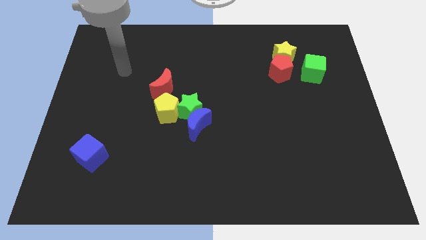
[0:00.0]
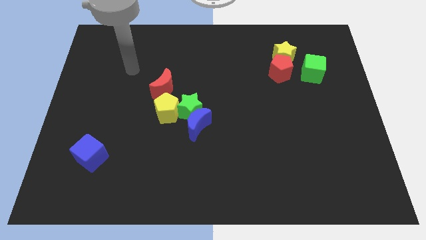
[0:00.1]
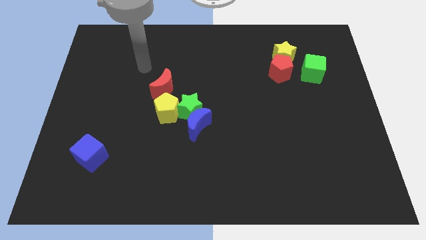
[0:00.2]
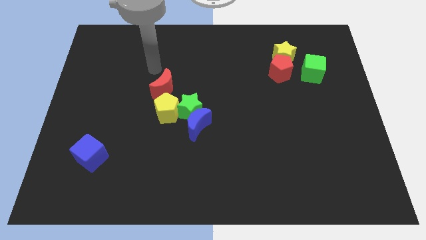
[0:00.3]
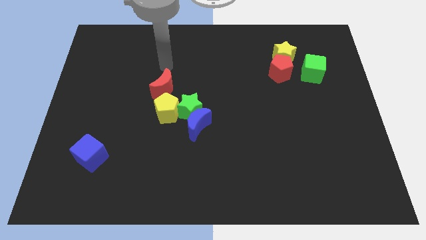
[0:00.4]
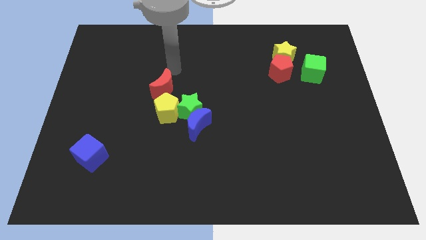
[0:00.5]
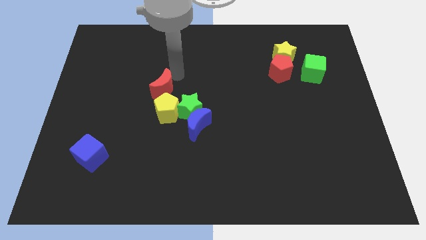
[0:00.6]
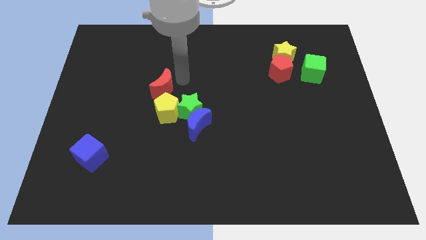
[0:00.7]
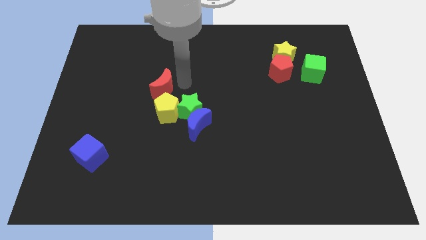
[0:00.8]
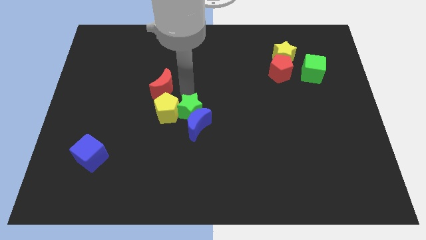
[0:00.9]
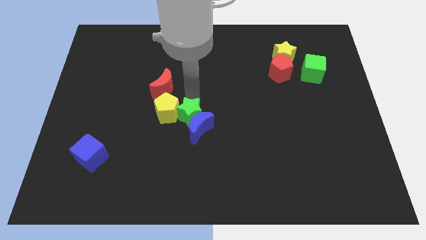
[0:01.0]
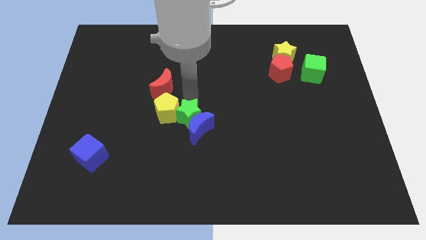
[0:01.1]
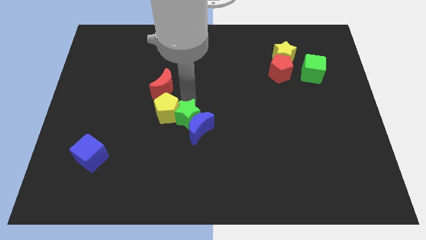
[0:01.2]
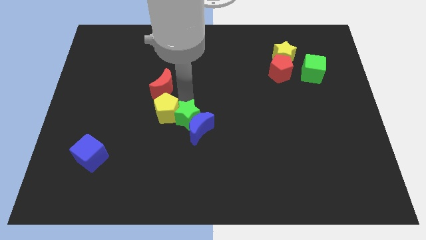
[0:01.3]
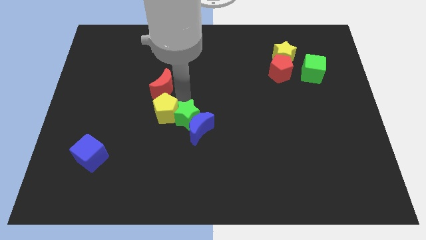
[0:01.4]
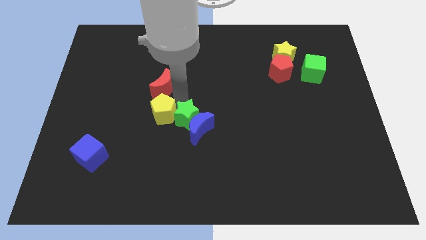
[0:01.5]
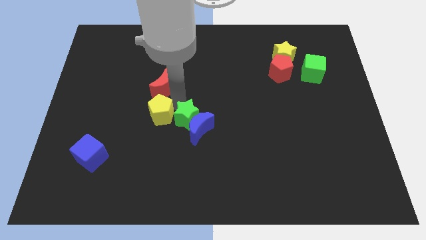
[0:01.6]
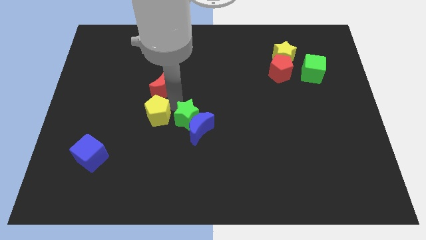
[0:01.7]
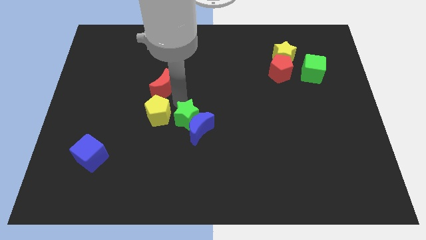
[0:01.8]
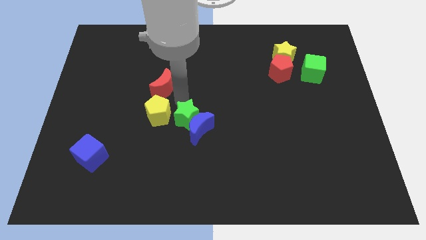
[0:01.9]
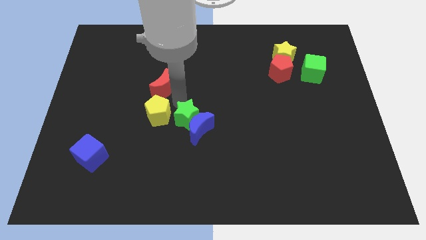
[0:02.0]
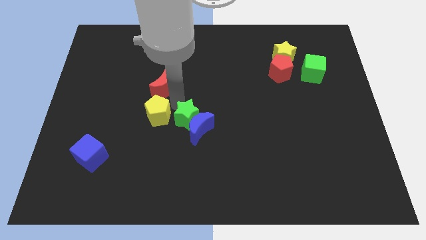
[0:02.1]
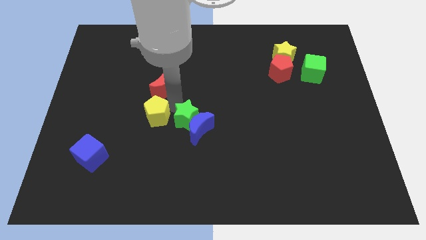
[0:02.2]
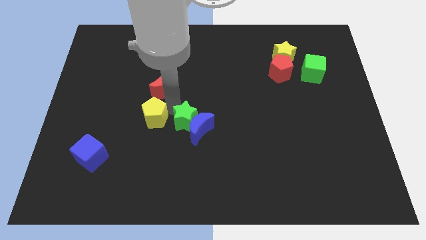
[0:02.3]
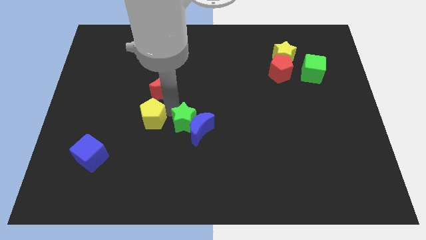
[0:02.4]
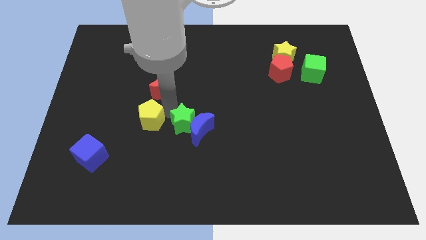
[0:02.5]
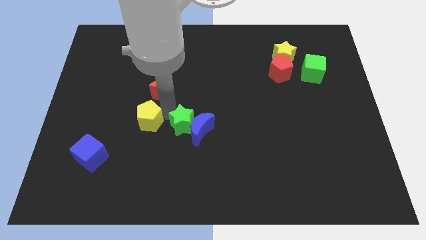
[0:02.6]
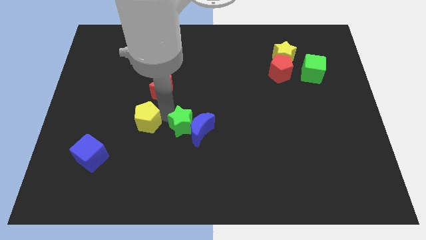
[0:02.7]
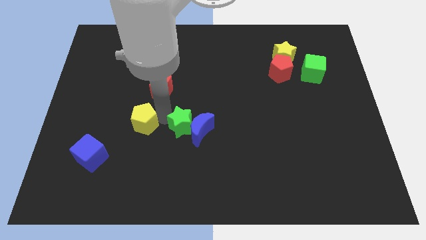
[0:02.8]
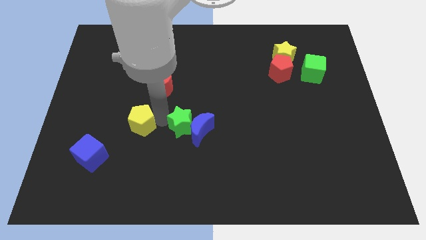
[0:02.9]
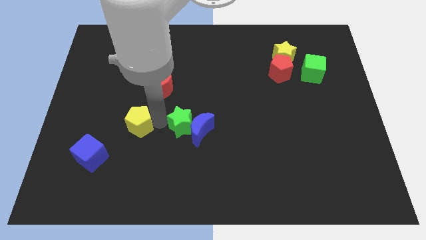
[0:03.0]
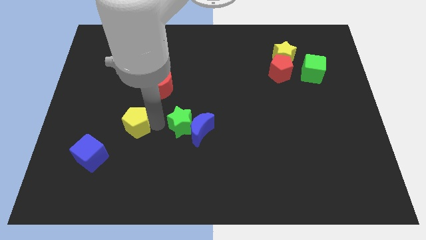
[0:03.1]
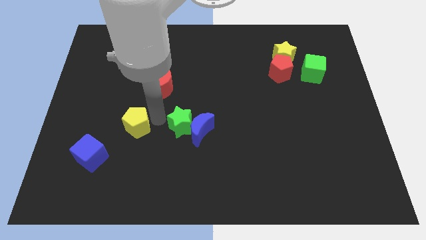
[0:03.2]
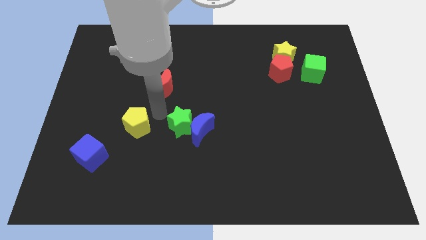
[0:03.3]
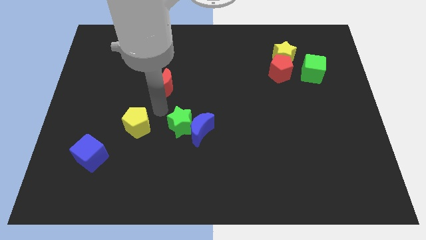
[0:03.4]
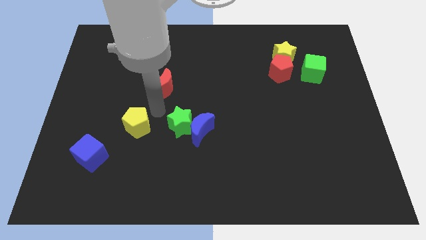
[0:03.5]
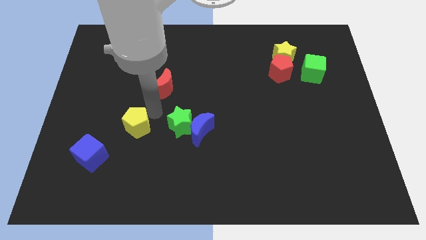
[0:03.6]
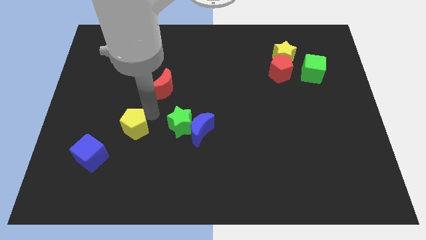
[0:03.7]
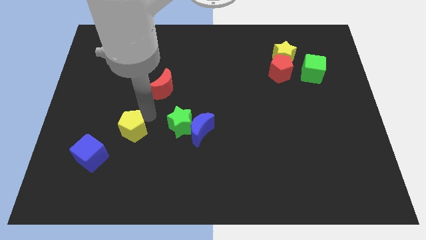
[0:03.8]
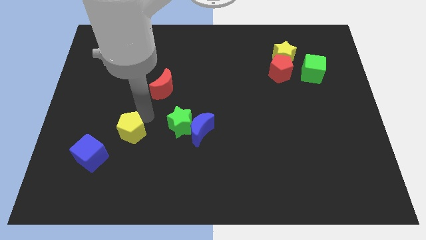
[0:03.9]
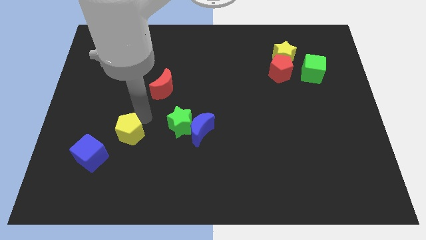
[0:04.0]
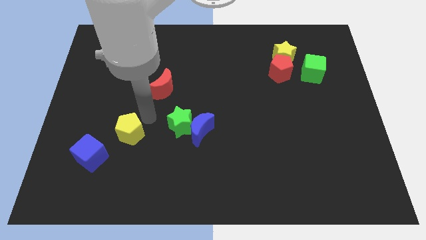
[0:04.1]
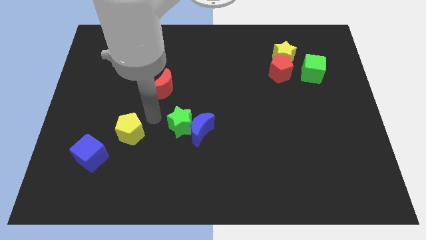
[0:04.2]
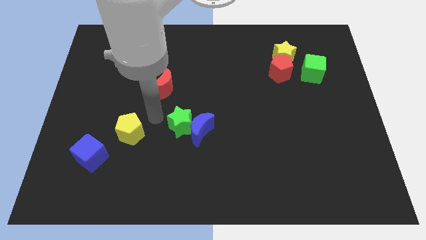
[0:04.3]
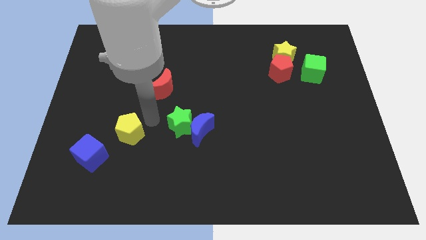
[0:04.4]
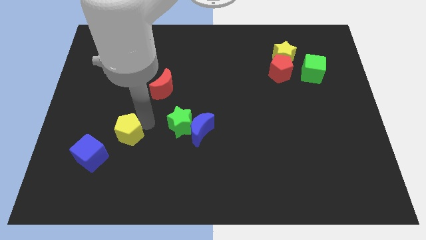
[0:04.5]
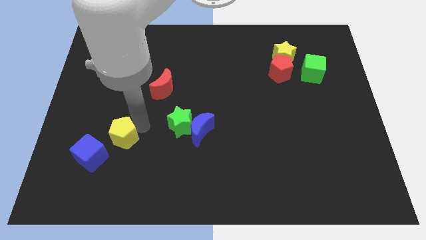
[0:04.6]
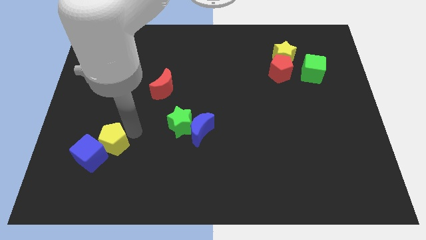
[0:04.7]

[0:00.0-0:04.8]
push the yellow pentagon close to the blue cube

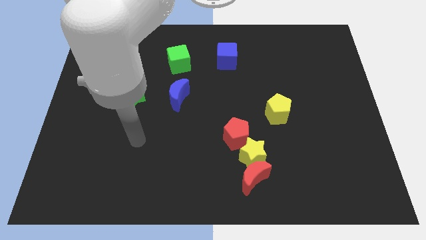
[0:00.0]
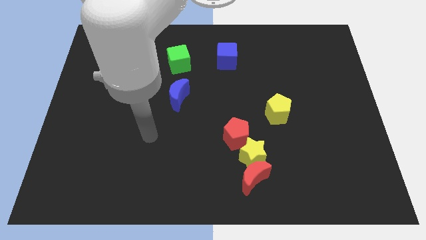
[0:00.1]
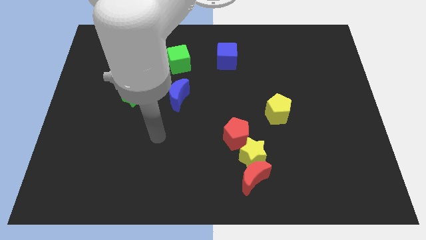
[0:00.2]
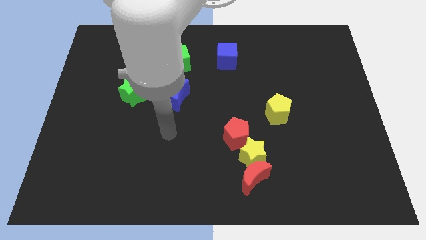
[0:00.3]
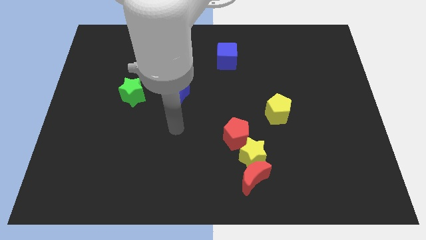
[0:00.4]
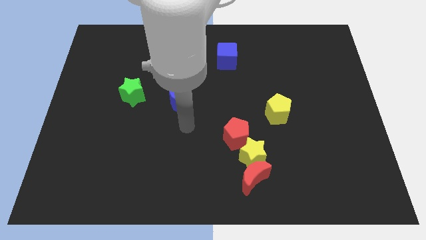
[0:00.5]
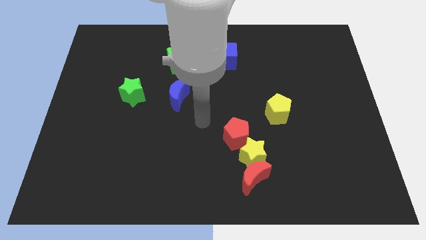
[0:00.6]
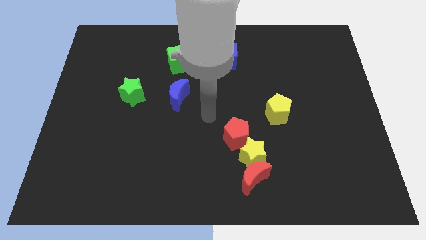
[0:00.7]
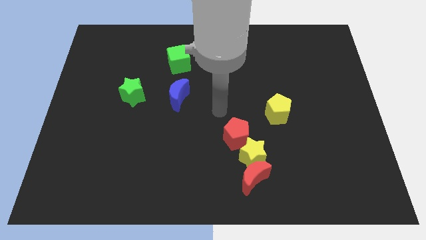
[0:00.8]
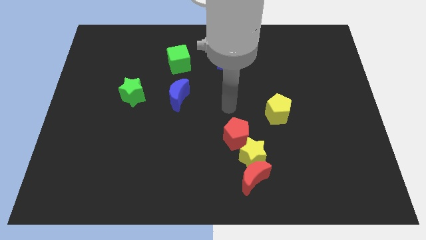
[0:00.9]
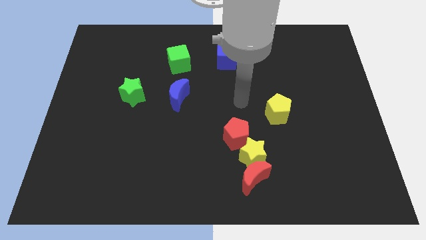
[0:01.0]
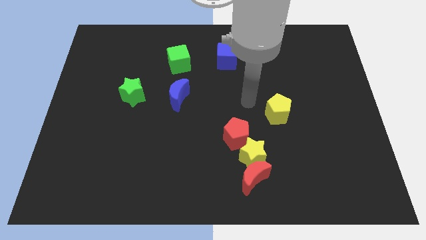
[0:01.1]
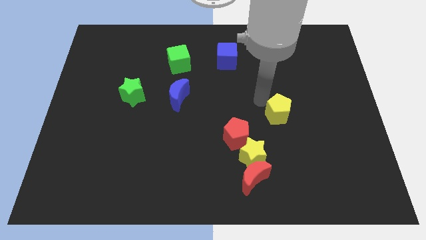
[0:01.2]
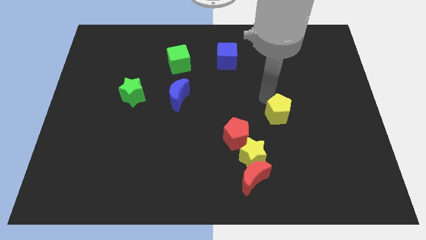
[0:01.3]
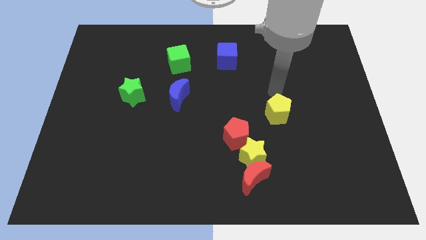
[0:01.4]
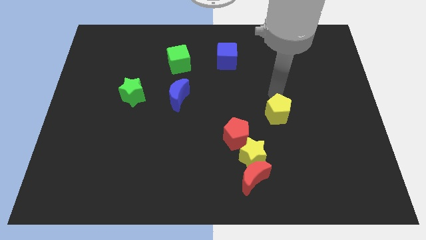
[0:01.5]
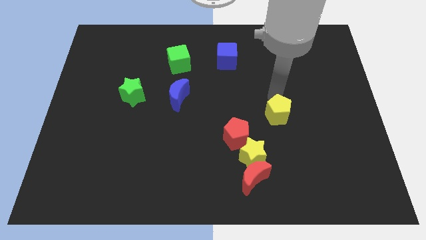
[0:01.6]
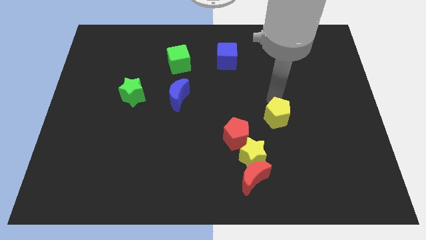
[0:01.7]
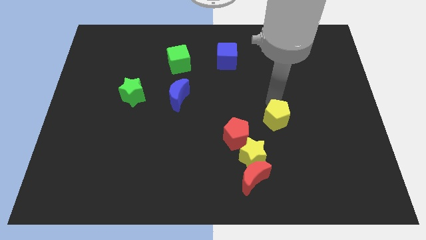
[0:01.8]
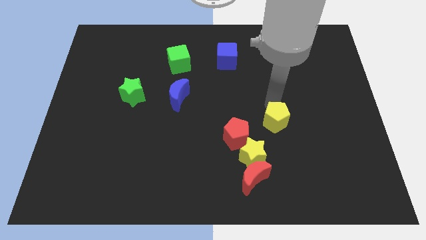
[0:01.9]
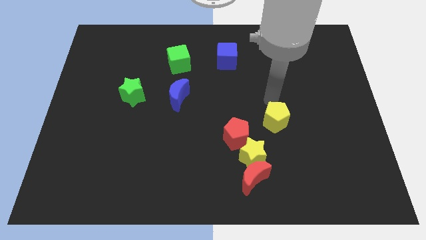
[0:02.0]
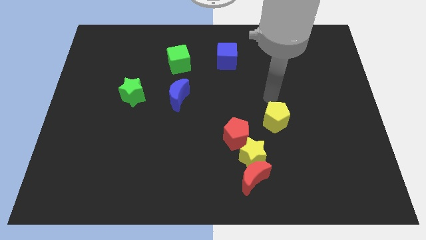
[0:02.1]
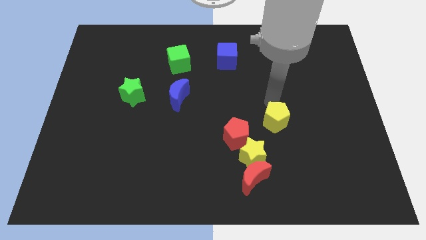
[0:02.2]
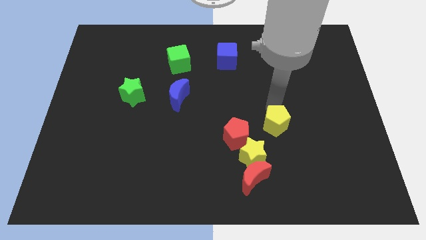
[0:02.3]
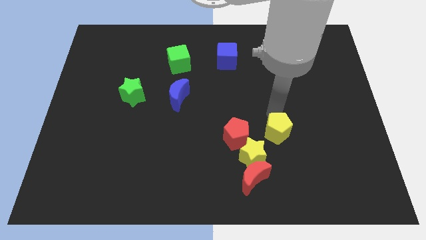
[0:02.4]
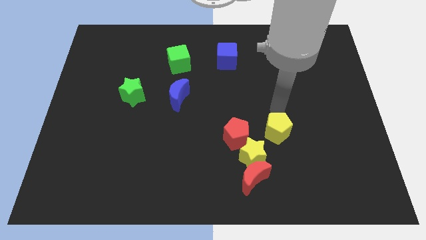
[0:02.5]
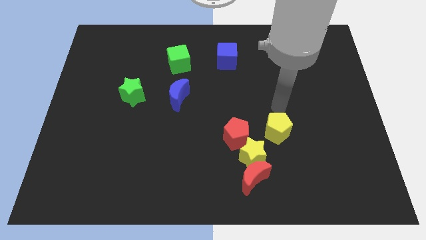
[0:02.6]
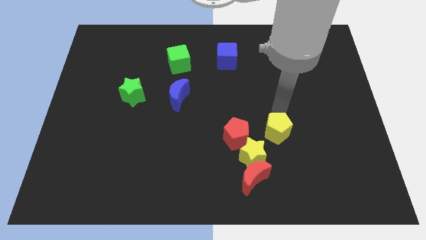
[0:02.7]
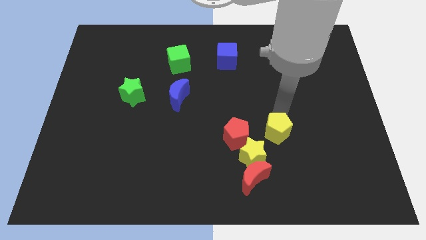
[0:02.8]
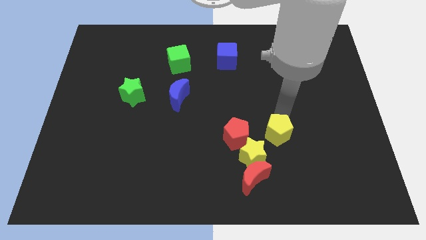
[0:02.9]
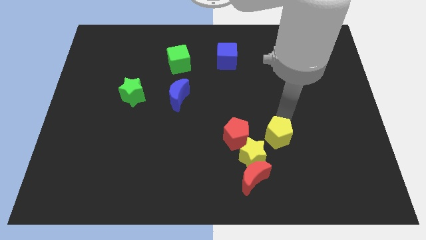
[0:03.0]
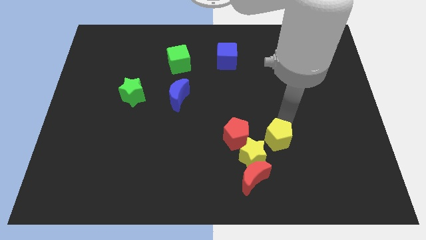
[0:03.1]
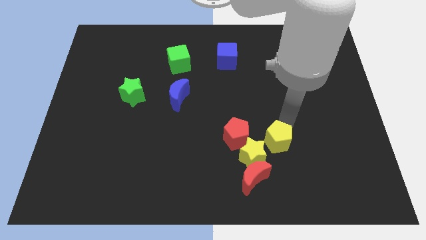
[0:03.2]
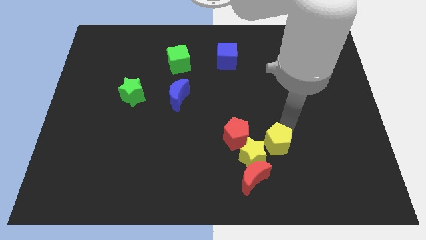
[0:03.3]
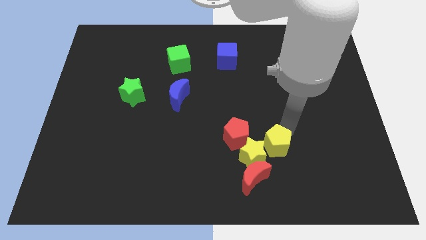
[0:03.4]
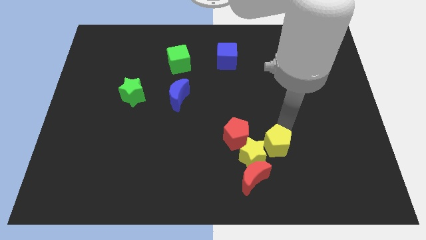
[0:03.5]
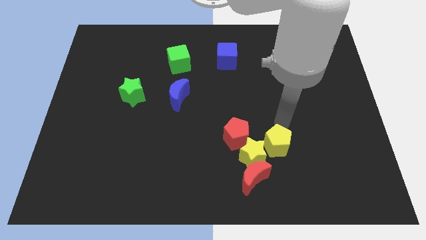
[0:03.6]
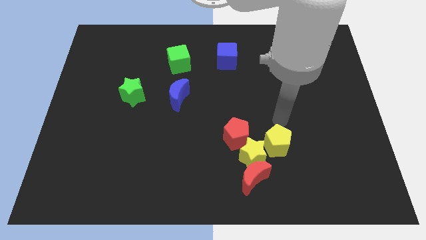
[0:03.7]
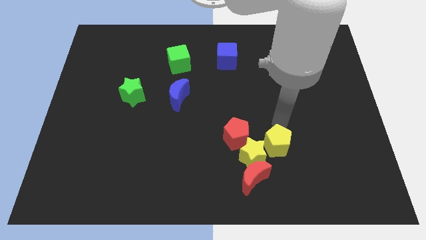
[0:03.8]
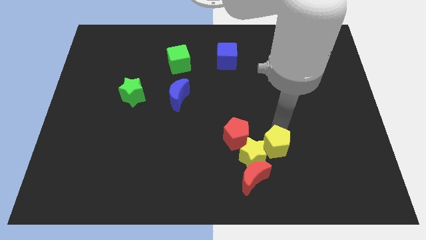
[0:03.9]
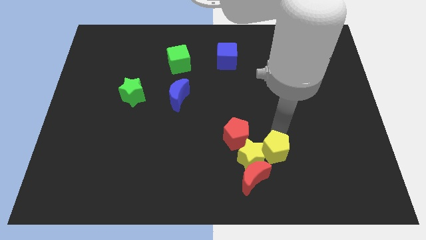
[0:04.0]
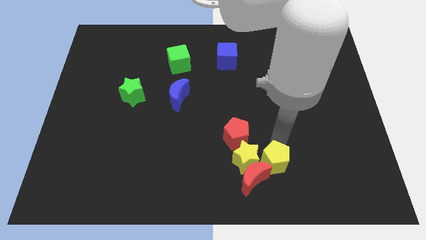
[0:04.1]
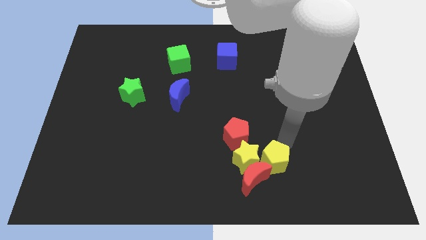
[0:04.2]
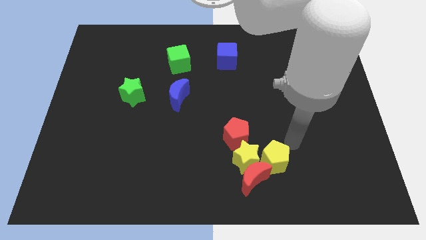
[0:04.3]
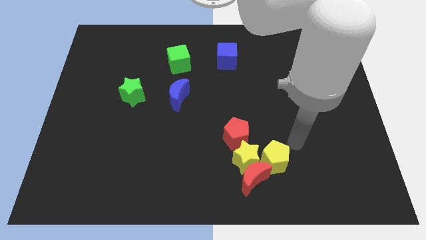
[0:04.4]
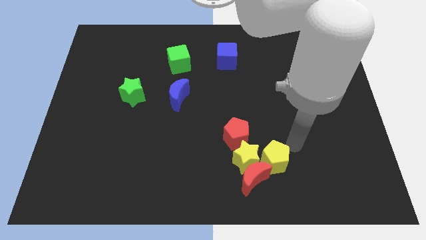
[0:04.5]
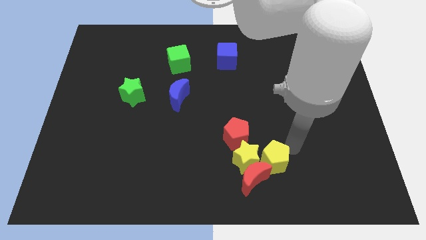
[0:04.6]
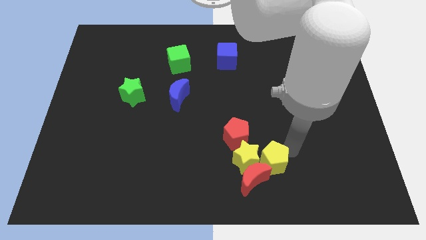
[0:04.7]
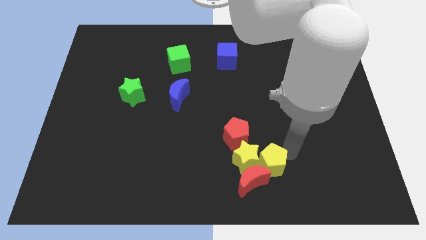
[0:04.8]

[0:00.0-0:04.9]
push the yellow pentagon to the red moon
